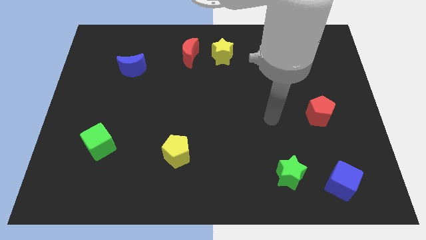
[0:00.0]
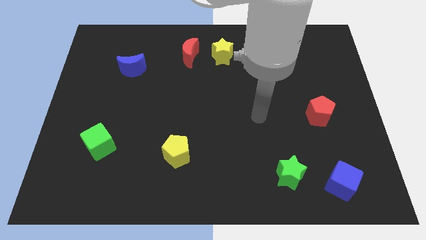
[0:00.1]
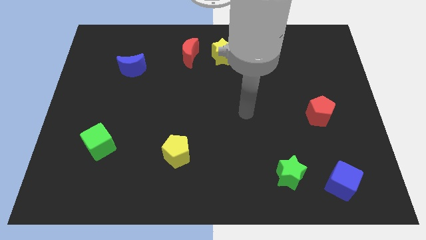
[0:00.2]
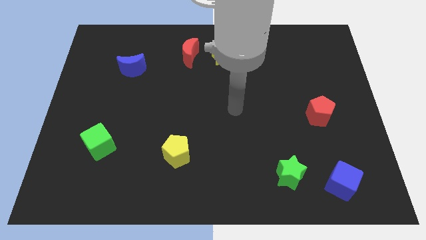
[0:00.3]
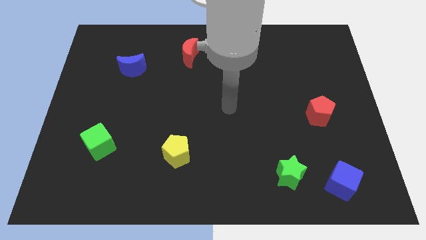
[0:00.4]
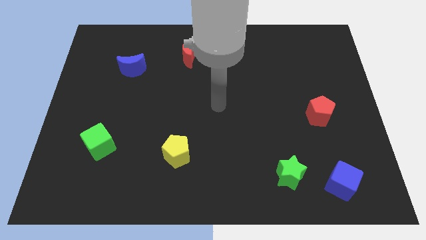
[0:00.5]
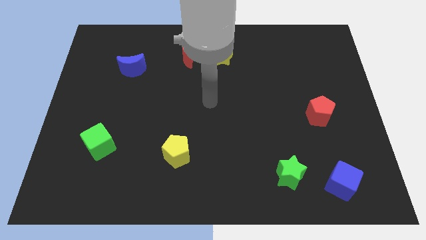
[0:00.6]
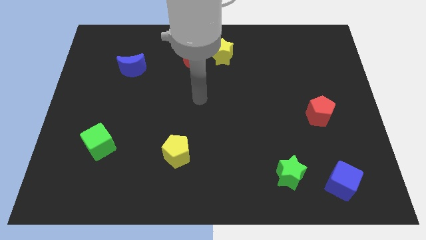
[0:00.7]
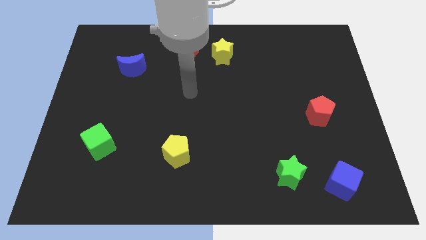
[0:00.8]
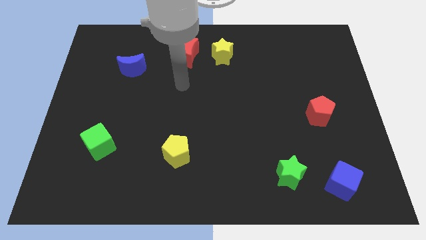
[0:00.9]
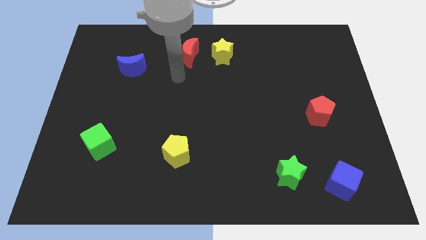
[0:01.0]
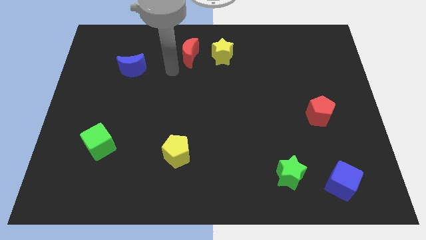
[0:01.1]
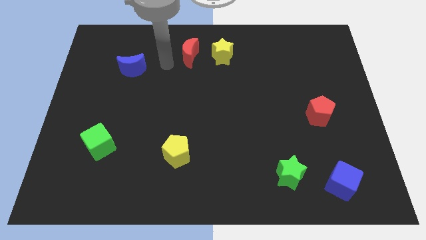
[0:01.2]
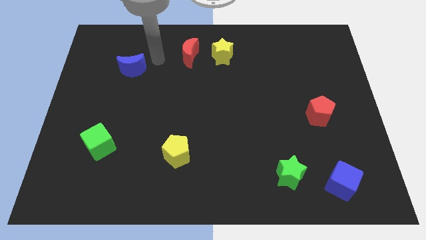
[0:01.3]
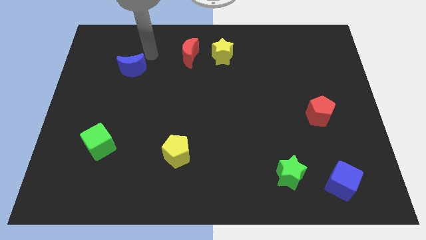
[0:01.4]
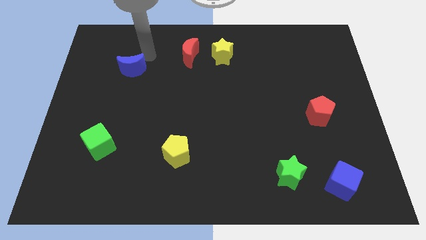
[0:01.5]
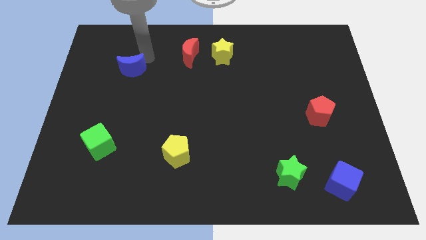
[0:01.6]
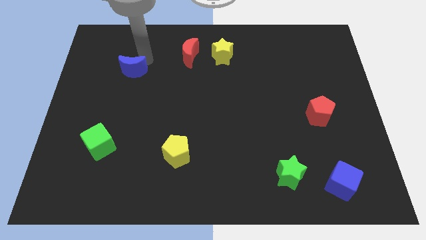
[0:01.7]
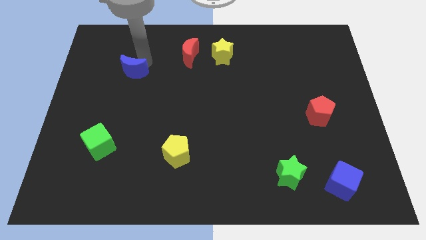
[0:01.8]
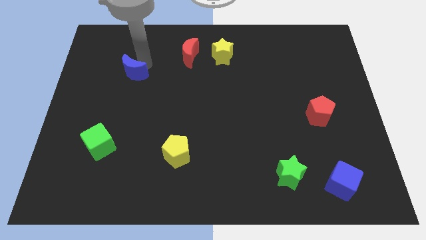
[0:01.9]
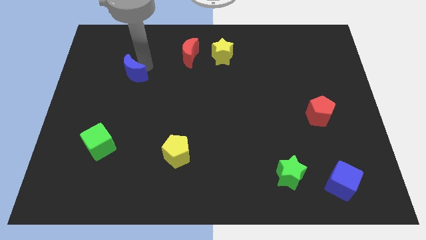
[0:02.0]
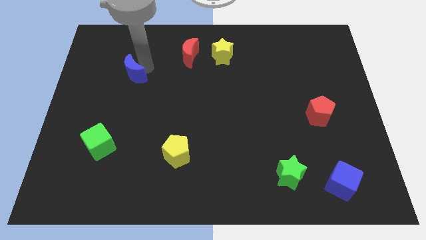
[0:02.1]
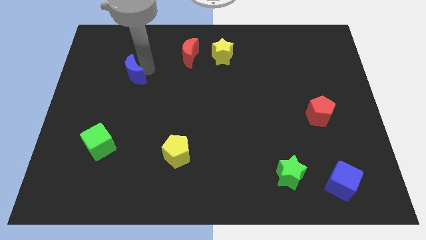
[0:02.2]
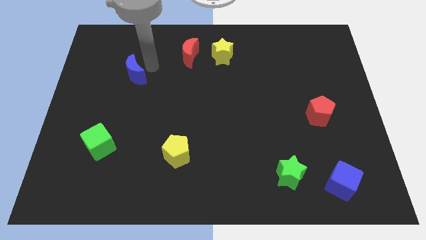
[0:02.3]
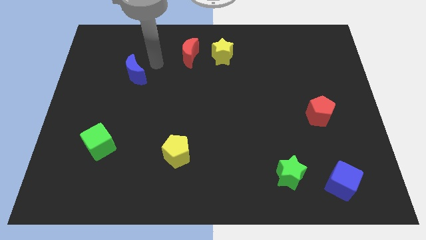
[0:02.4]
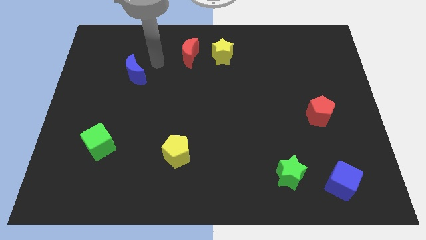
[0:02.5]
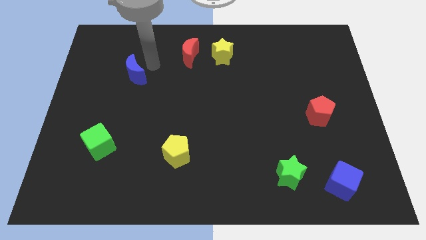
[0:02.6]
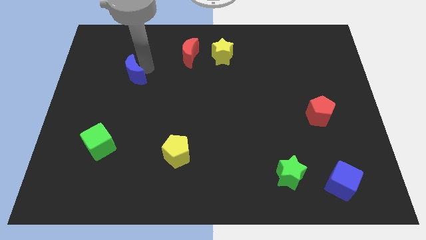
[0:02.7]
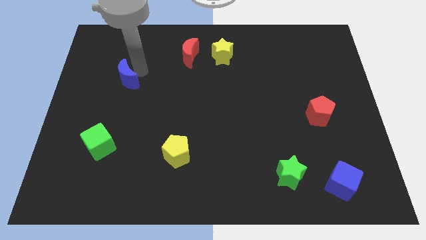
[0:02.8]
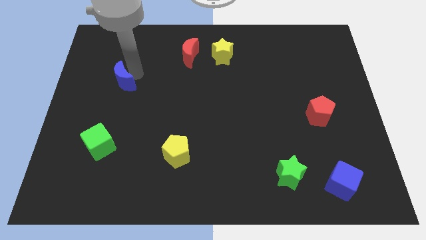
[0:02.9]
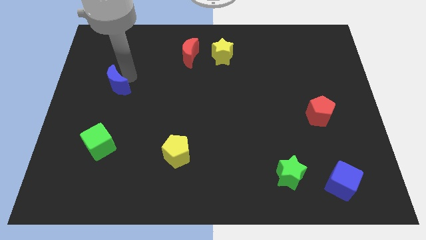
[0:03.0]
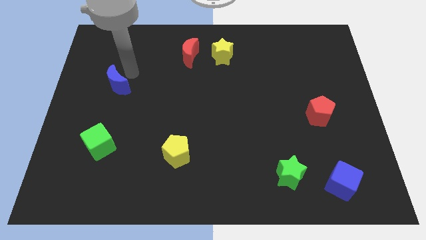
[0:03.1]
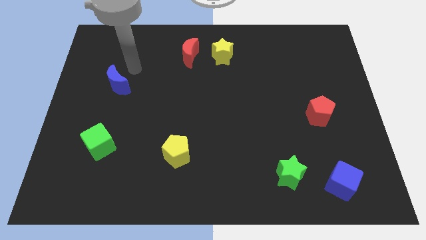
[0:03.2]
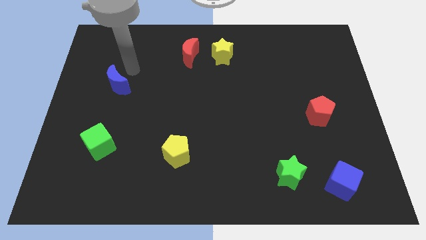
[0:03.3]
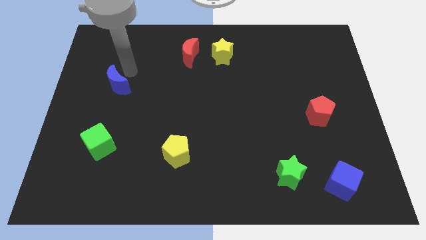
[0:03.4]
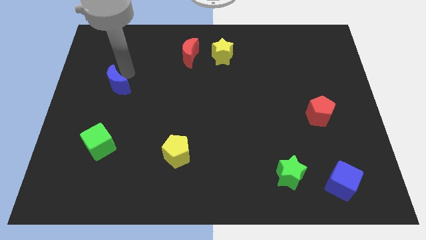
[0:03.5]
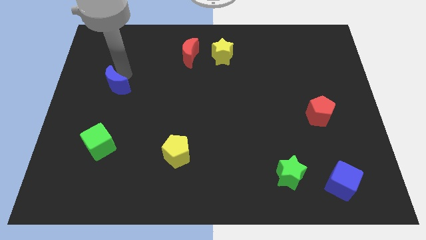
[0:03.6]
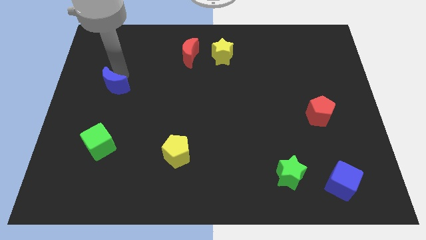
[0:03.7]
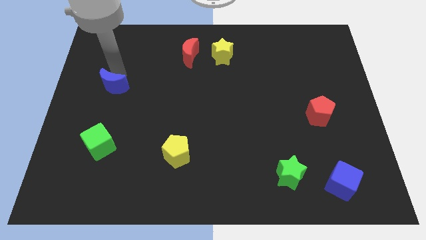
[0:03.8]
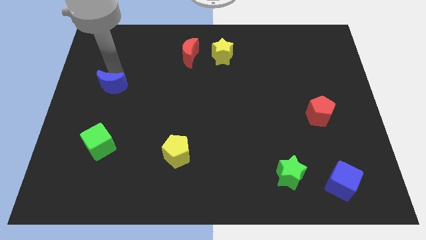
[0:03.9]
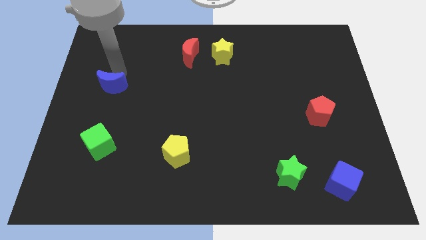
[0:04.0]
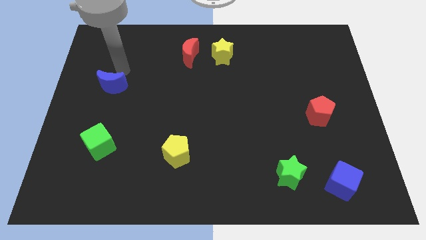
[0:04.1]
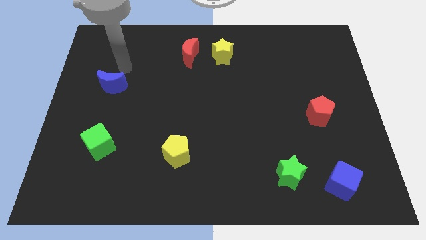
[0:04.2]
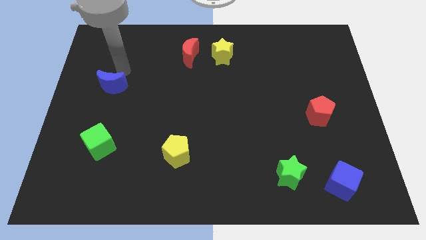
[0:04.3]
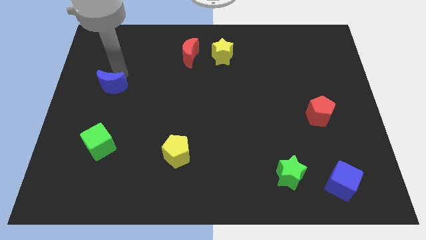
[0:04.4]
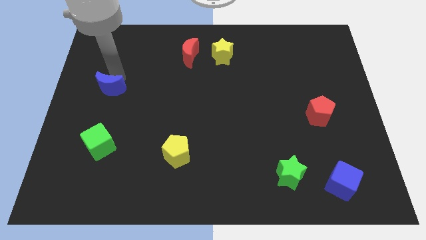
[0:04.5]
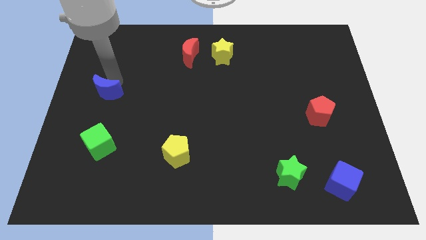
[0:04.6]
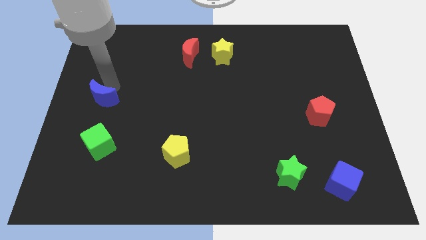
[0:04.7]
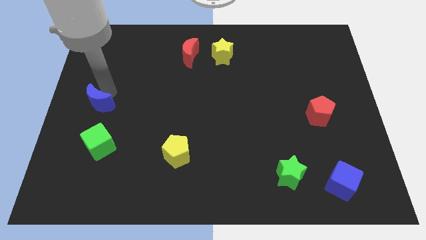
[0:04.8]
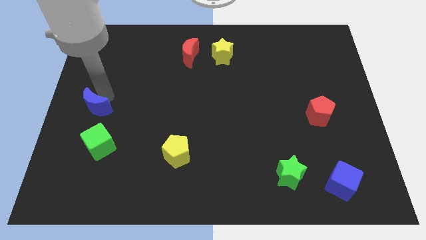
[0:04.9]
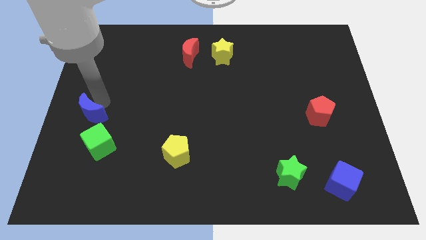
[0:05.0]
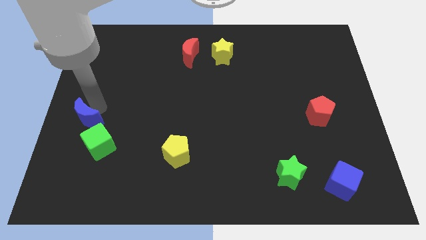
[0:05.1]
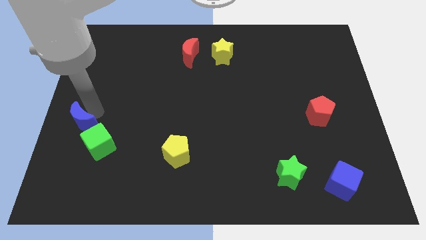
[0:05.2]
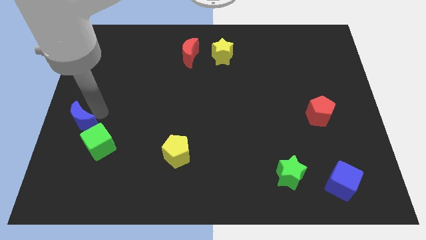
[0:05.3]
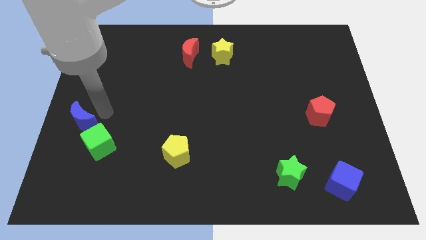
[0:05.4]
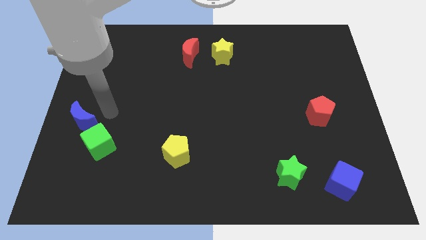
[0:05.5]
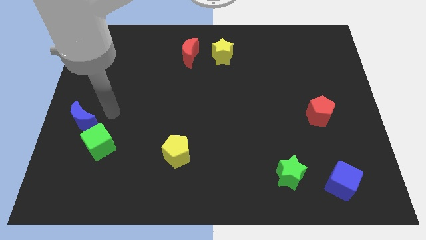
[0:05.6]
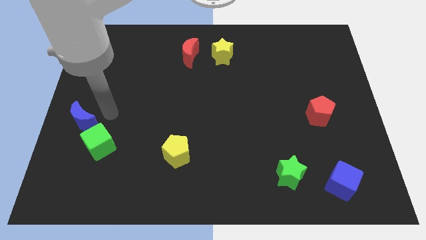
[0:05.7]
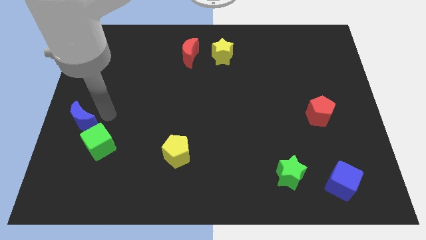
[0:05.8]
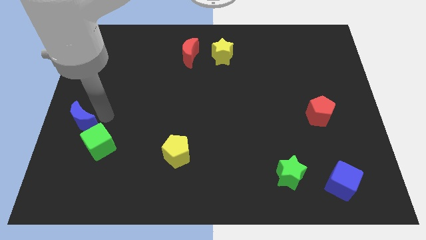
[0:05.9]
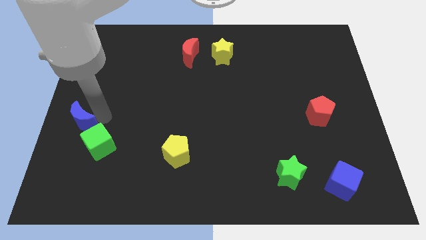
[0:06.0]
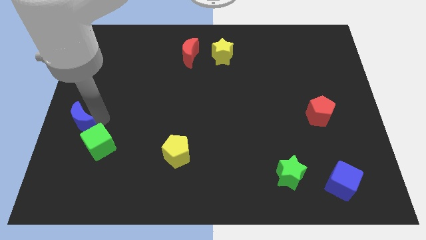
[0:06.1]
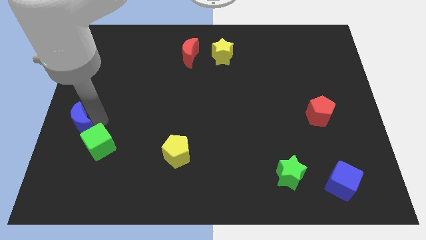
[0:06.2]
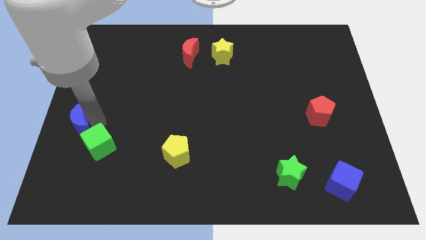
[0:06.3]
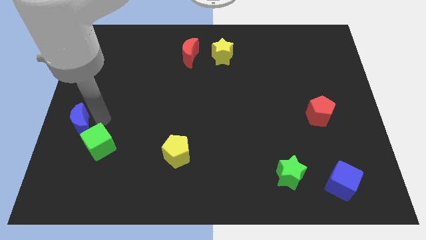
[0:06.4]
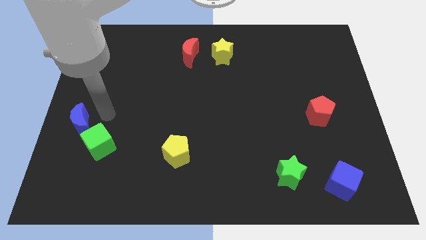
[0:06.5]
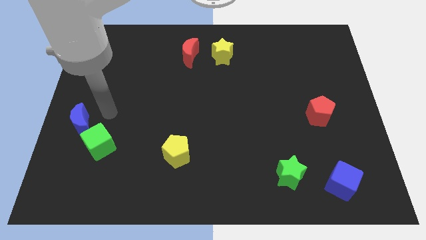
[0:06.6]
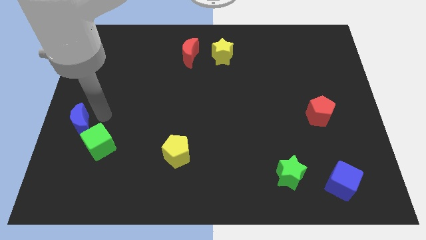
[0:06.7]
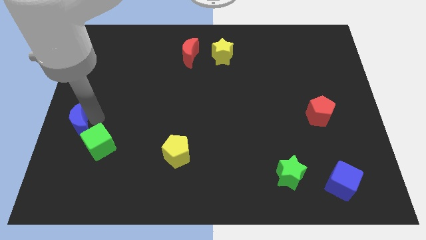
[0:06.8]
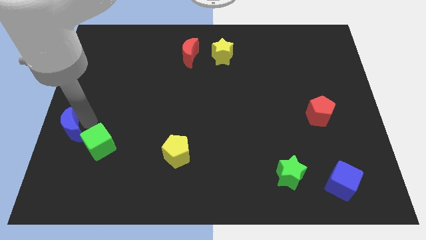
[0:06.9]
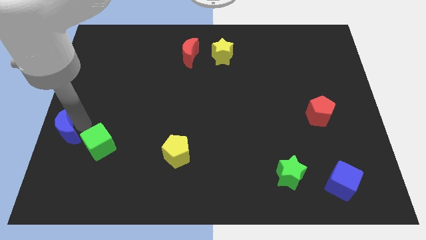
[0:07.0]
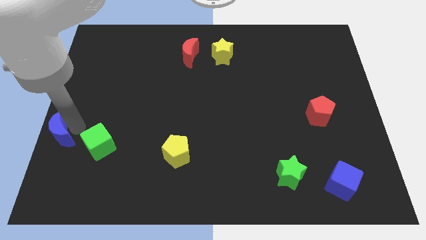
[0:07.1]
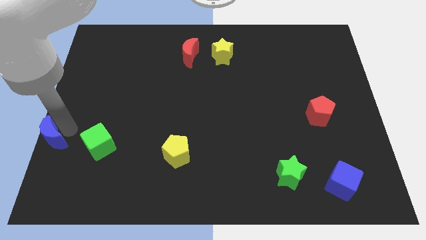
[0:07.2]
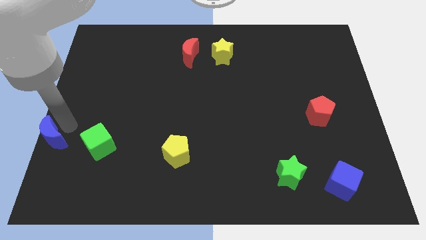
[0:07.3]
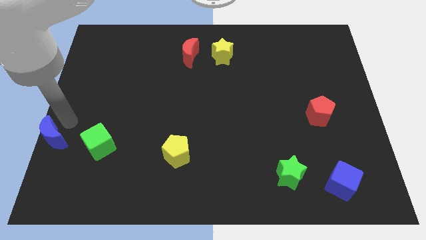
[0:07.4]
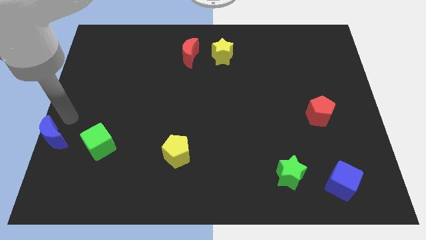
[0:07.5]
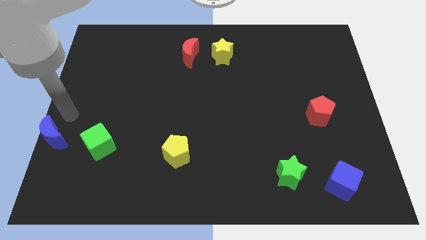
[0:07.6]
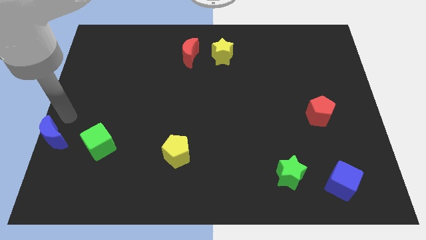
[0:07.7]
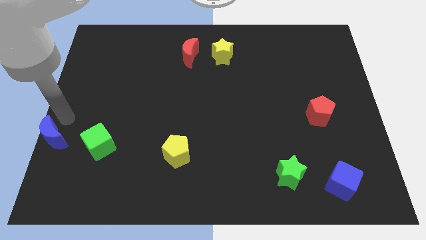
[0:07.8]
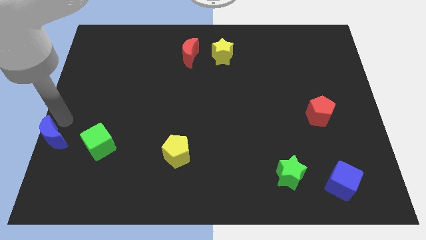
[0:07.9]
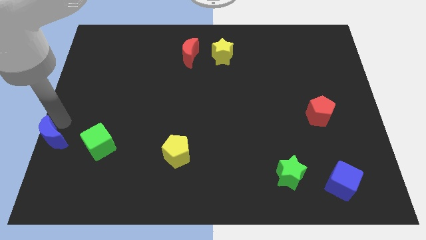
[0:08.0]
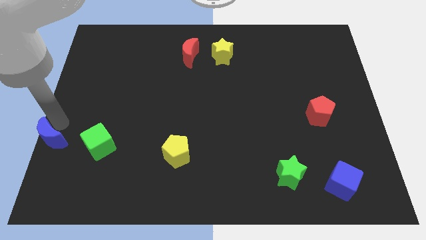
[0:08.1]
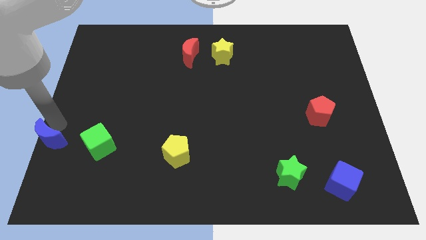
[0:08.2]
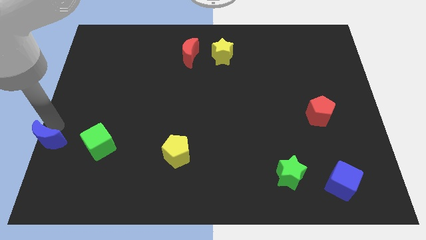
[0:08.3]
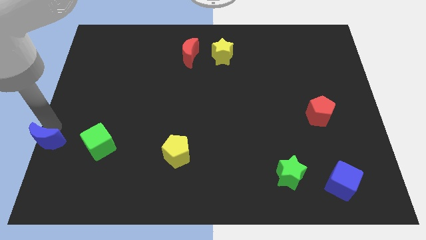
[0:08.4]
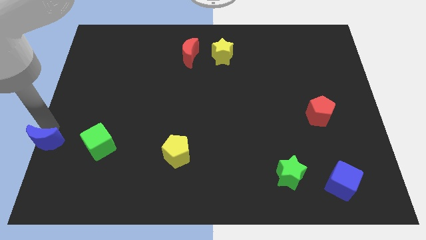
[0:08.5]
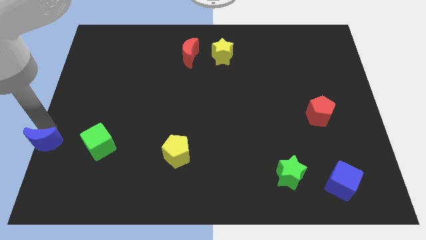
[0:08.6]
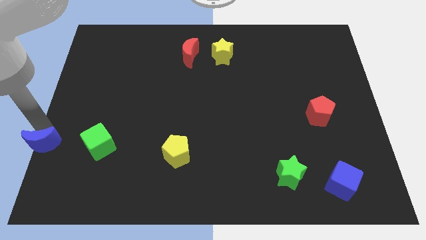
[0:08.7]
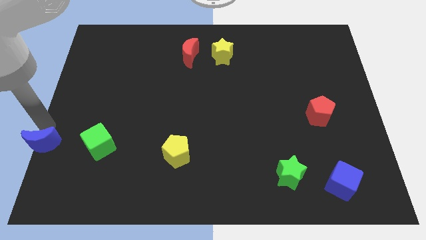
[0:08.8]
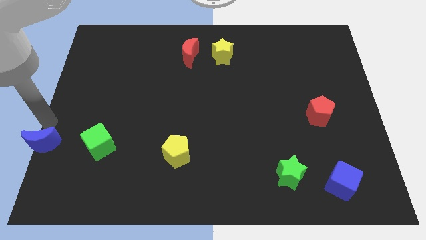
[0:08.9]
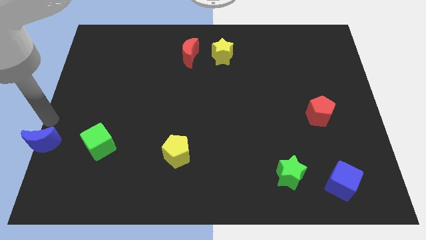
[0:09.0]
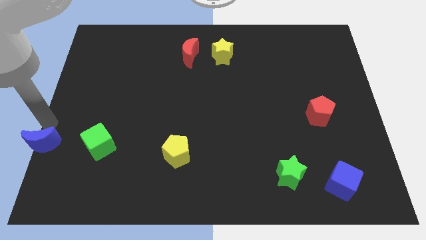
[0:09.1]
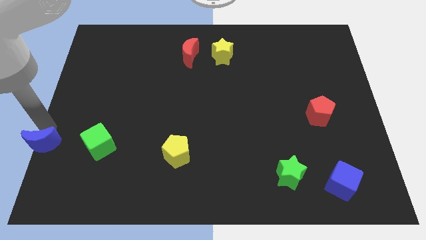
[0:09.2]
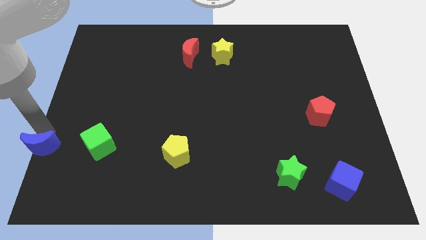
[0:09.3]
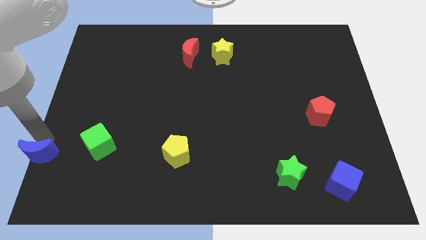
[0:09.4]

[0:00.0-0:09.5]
put the blue moon to the lower left corner
